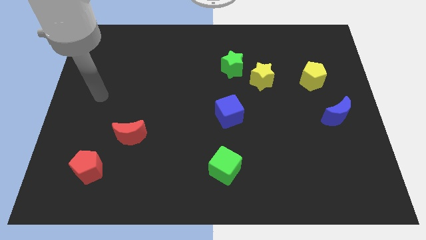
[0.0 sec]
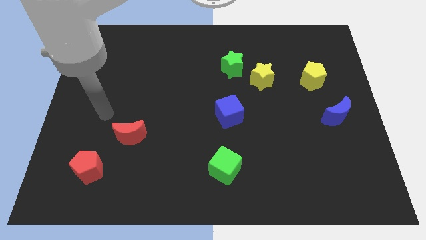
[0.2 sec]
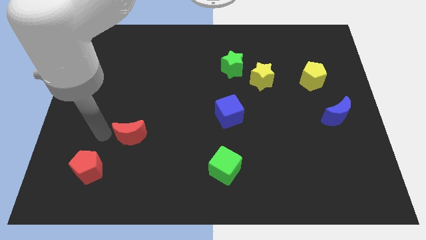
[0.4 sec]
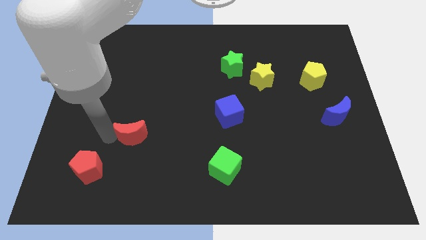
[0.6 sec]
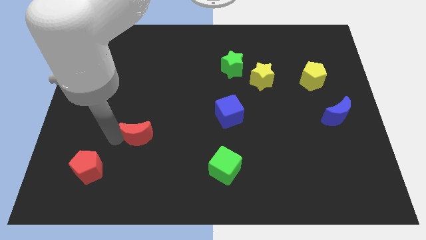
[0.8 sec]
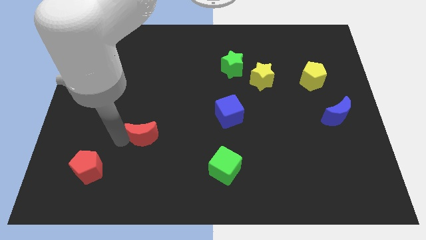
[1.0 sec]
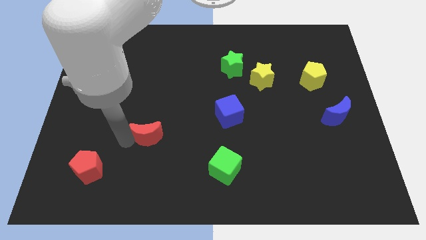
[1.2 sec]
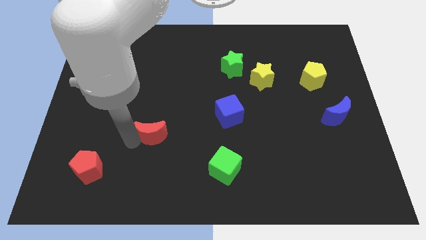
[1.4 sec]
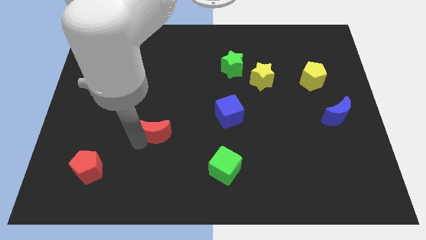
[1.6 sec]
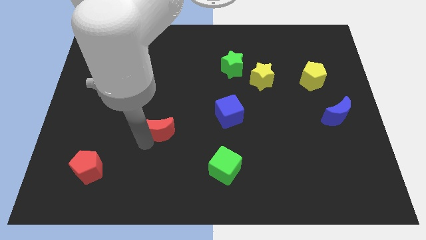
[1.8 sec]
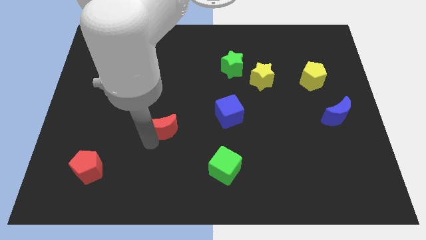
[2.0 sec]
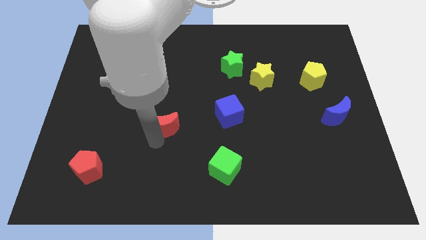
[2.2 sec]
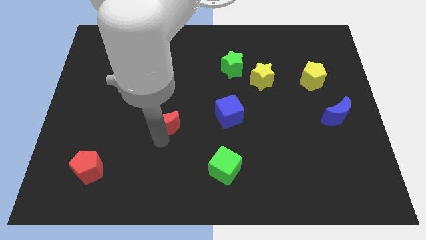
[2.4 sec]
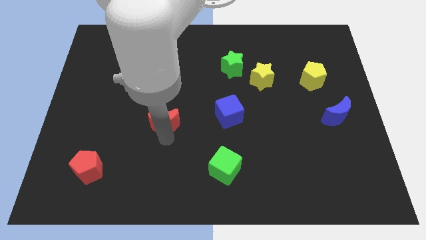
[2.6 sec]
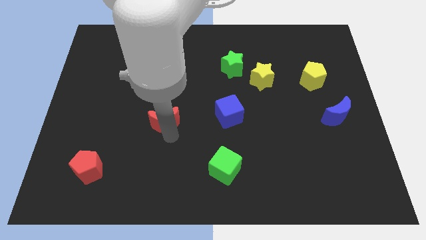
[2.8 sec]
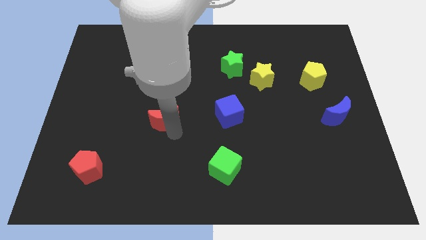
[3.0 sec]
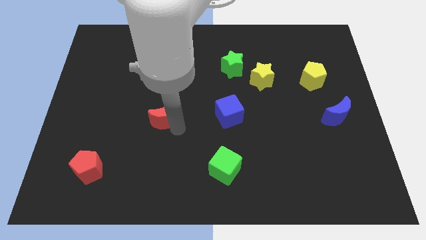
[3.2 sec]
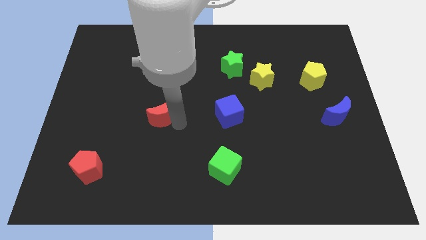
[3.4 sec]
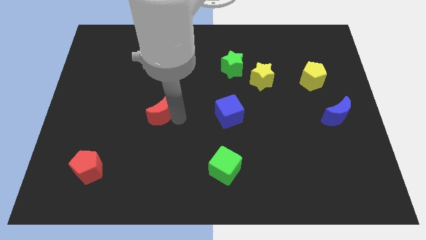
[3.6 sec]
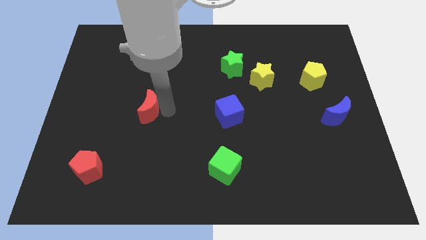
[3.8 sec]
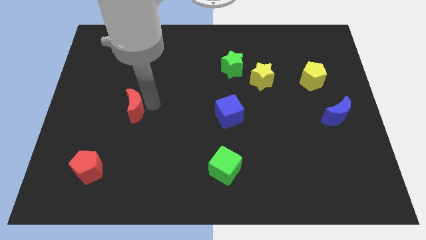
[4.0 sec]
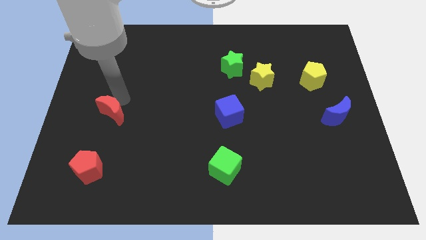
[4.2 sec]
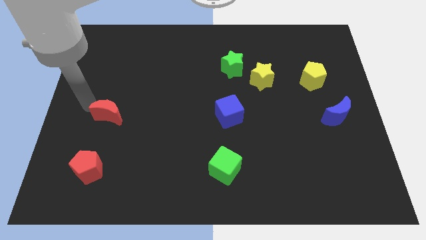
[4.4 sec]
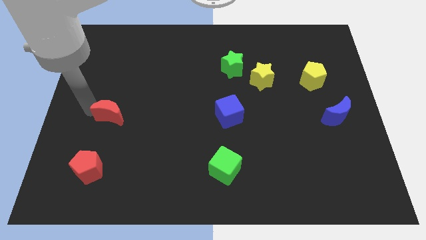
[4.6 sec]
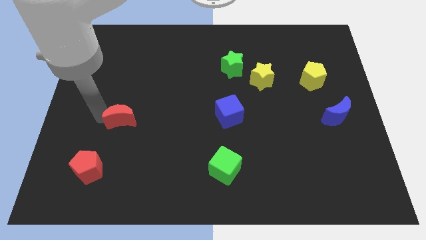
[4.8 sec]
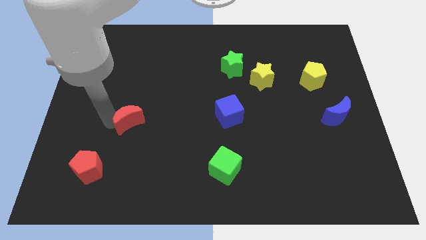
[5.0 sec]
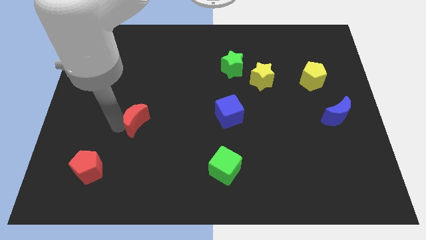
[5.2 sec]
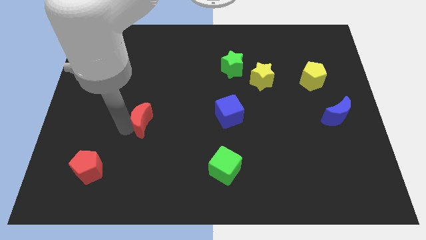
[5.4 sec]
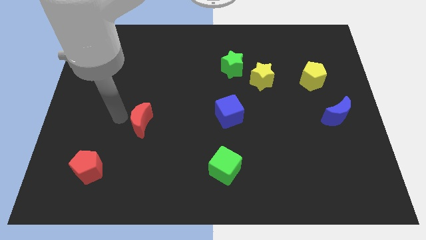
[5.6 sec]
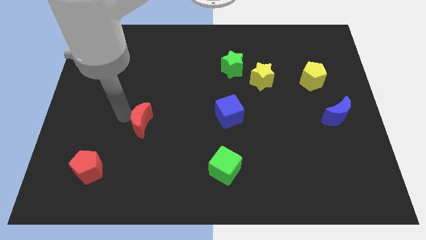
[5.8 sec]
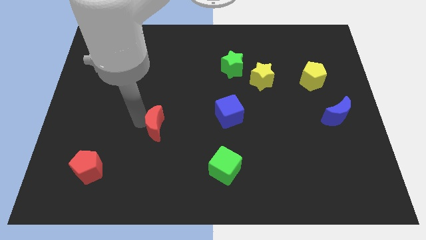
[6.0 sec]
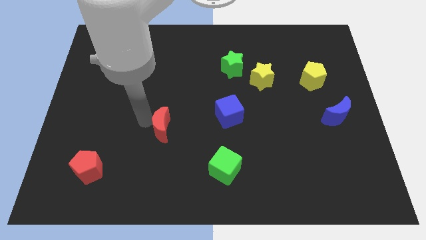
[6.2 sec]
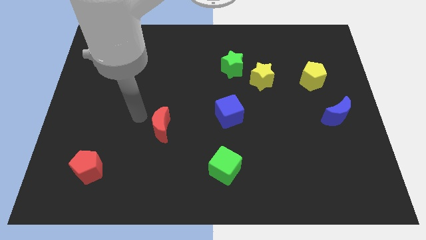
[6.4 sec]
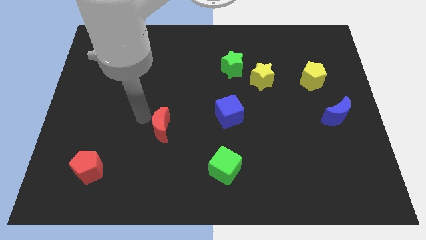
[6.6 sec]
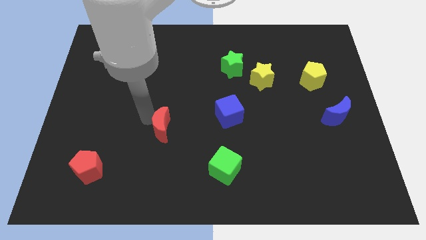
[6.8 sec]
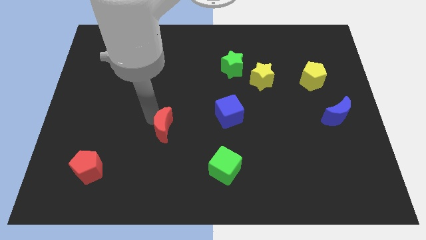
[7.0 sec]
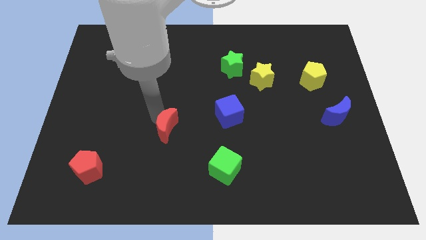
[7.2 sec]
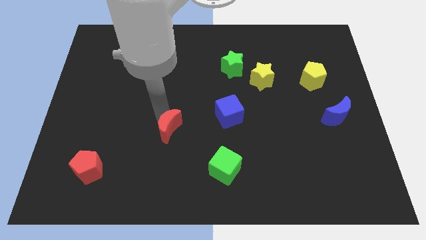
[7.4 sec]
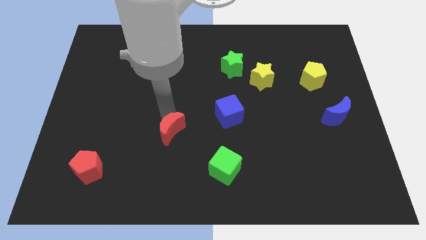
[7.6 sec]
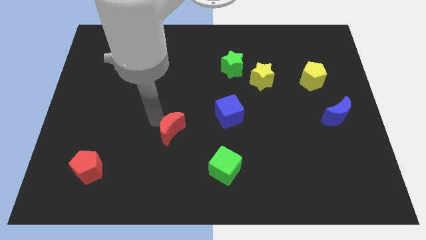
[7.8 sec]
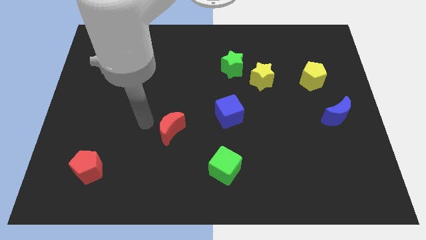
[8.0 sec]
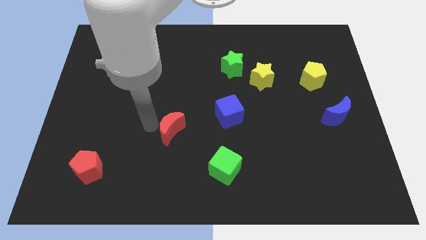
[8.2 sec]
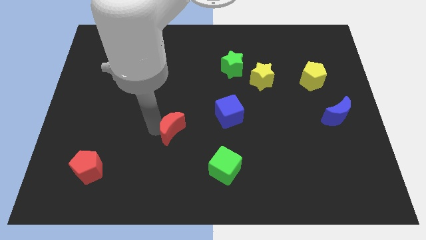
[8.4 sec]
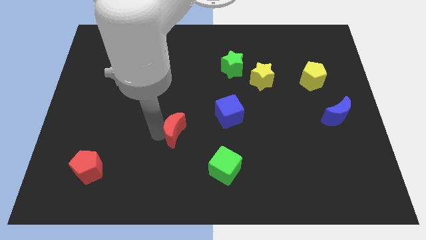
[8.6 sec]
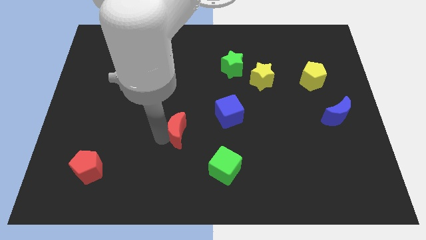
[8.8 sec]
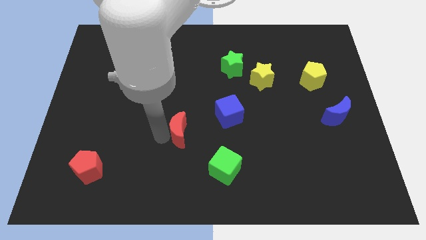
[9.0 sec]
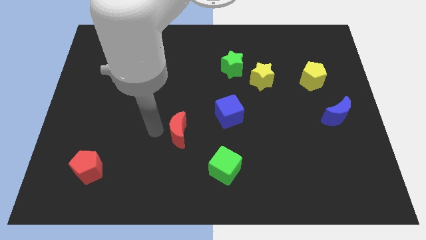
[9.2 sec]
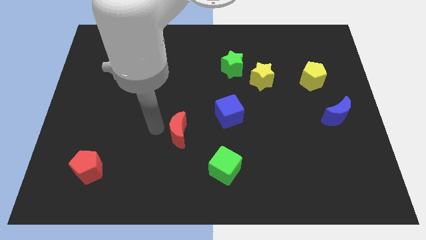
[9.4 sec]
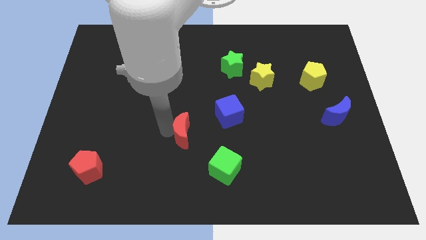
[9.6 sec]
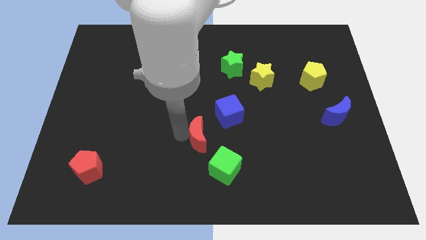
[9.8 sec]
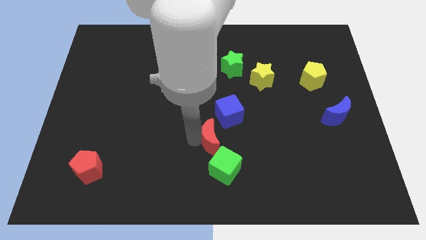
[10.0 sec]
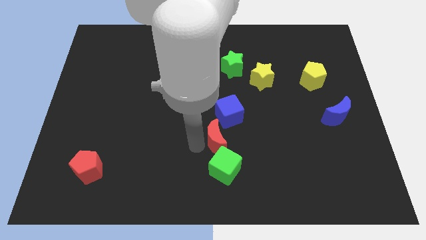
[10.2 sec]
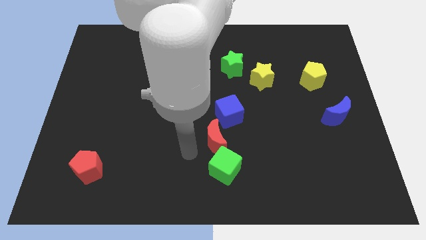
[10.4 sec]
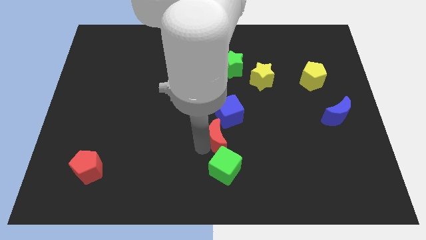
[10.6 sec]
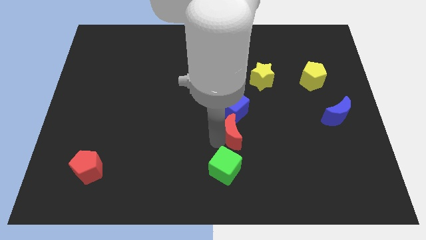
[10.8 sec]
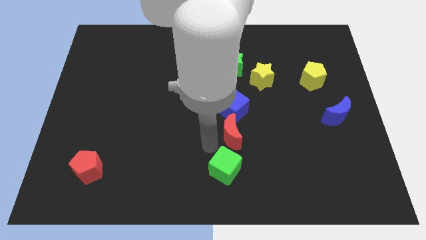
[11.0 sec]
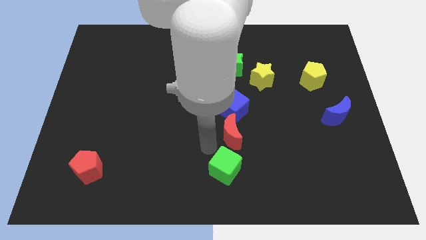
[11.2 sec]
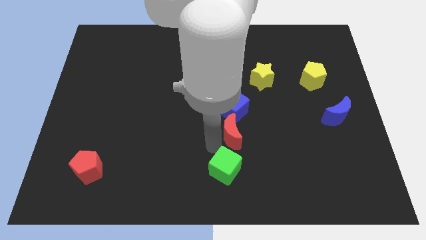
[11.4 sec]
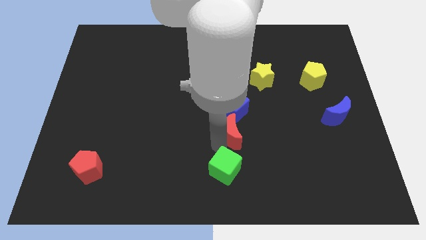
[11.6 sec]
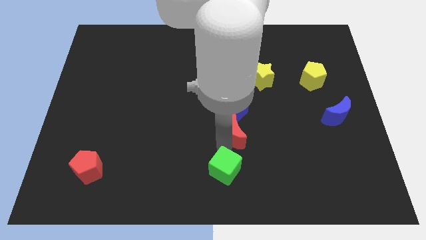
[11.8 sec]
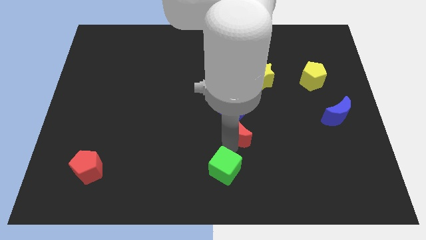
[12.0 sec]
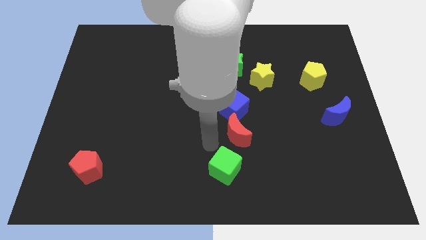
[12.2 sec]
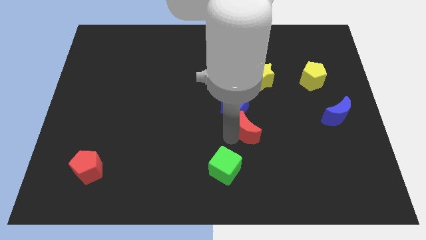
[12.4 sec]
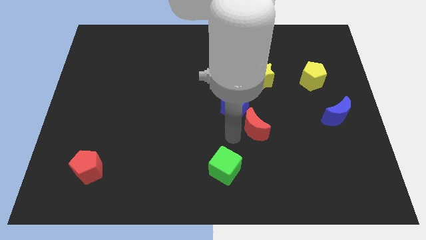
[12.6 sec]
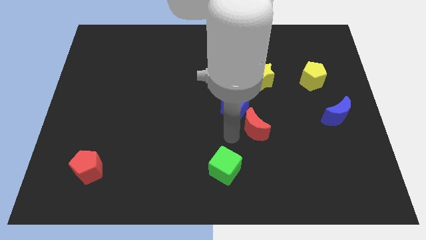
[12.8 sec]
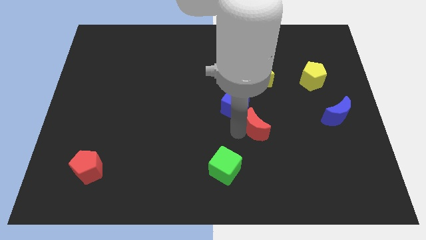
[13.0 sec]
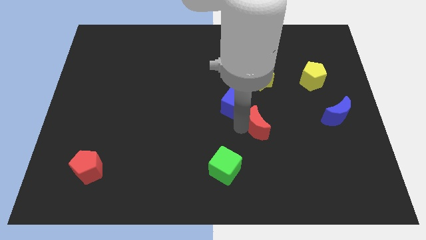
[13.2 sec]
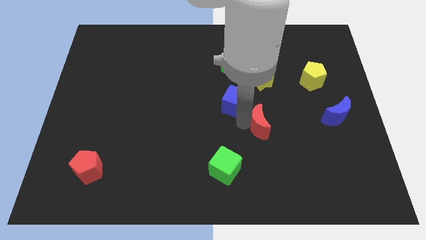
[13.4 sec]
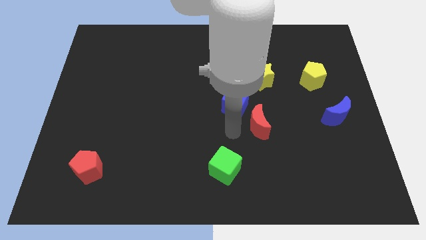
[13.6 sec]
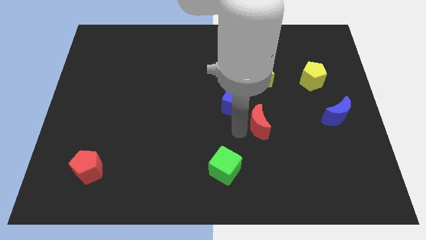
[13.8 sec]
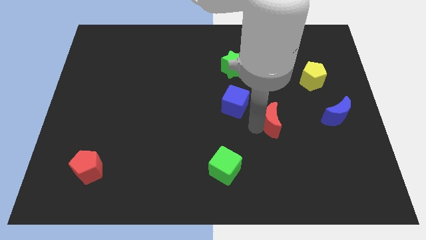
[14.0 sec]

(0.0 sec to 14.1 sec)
put the red moon to the left of the blue moon

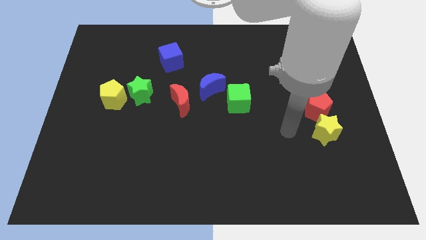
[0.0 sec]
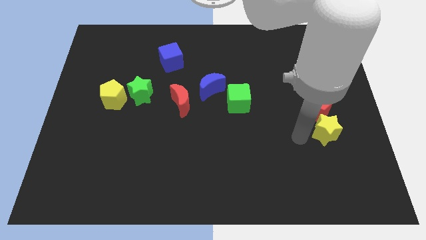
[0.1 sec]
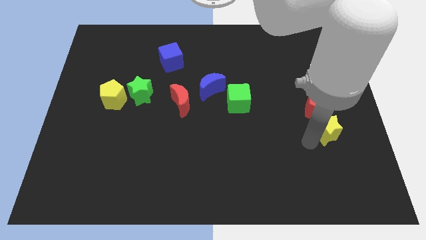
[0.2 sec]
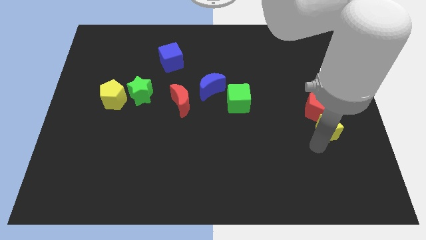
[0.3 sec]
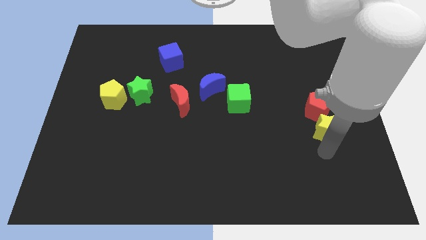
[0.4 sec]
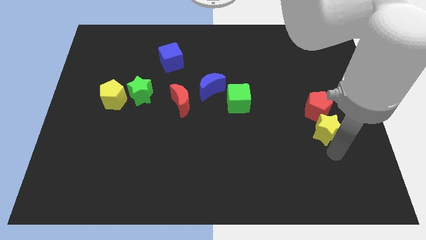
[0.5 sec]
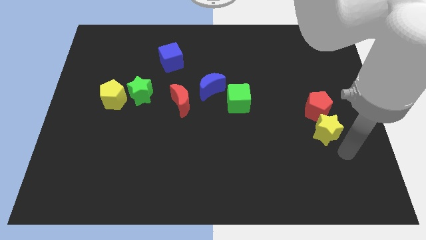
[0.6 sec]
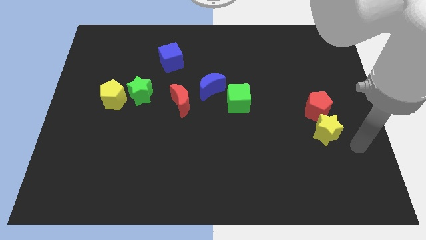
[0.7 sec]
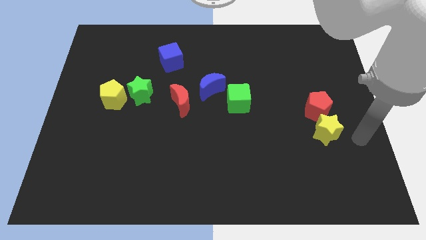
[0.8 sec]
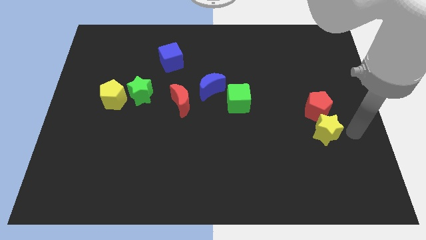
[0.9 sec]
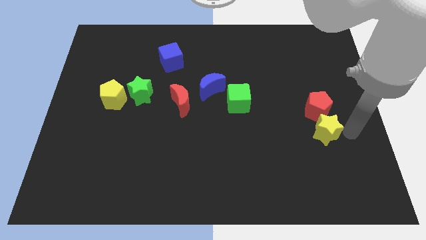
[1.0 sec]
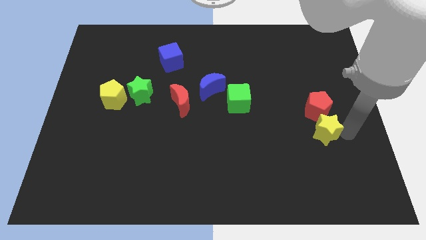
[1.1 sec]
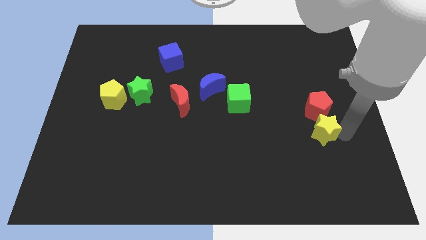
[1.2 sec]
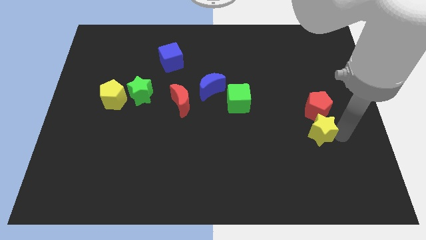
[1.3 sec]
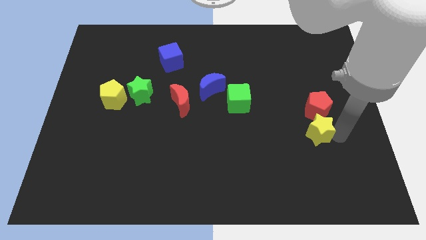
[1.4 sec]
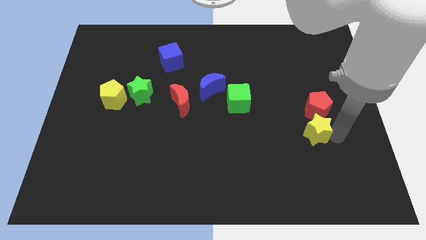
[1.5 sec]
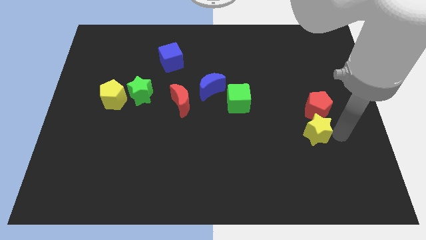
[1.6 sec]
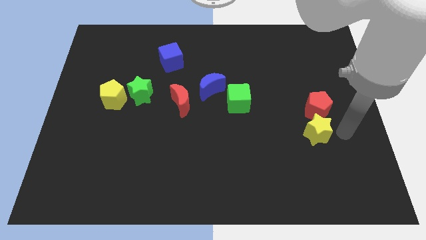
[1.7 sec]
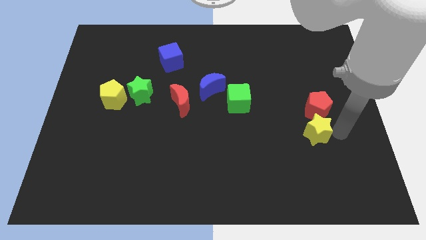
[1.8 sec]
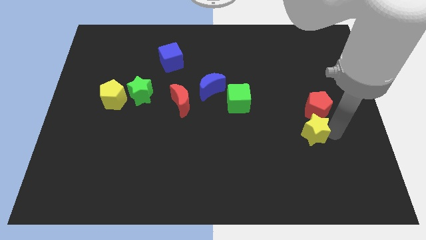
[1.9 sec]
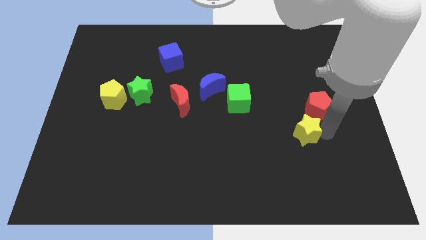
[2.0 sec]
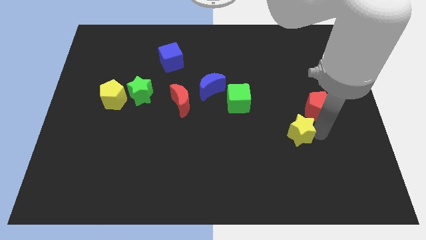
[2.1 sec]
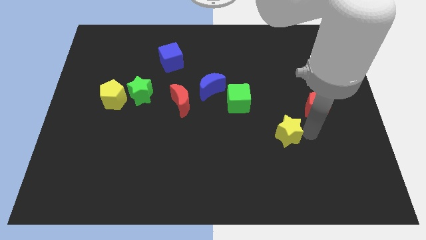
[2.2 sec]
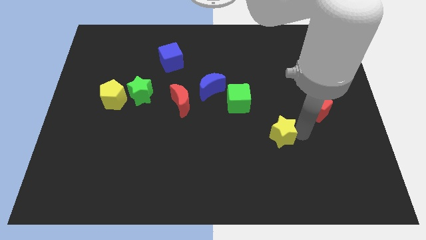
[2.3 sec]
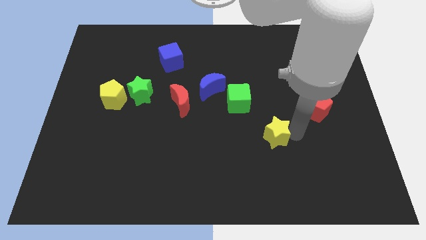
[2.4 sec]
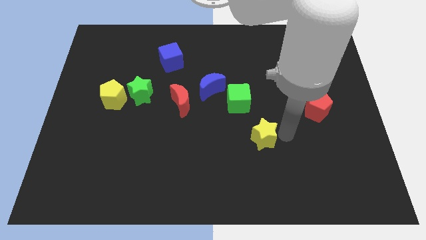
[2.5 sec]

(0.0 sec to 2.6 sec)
move the yellow star to the bottom of the green cube
